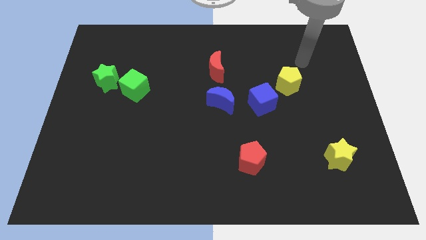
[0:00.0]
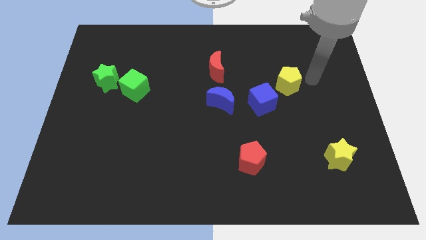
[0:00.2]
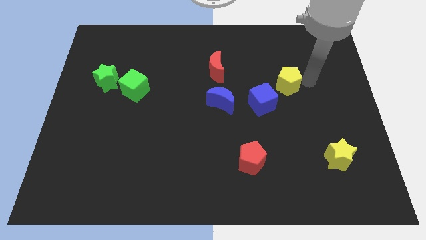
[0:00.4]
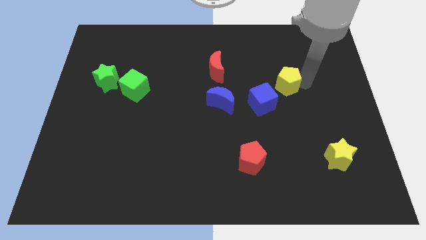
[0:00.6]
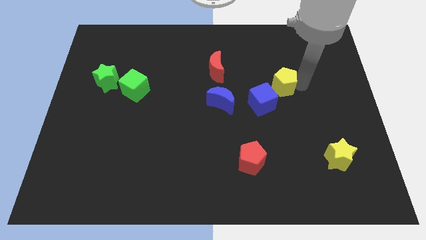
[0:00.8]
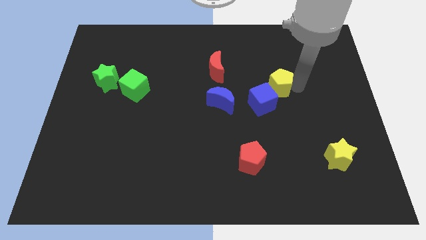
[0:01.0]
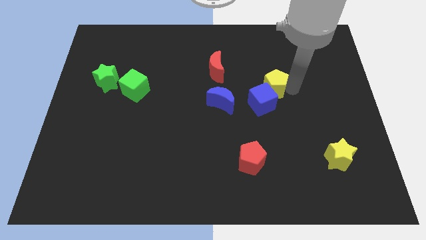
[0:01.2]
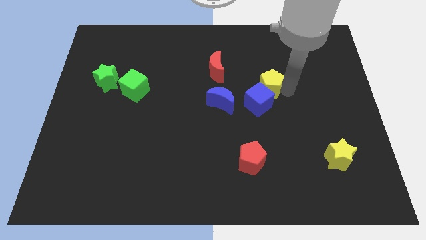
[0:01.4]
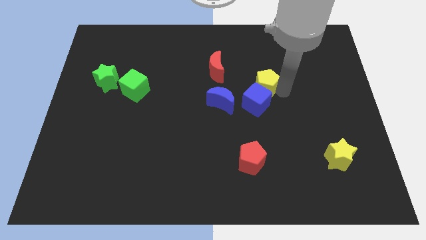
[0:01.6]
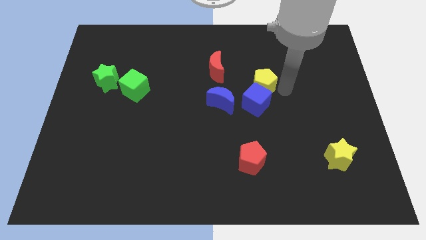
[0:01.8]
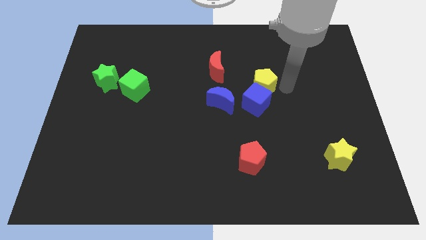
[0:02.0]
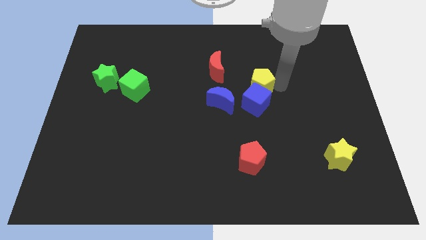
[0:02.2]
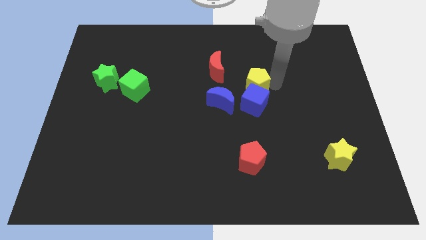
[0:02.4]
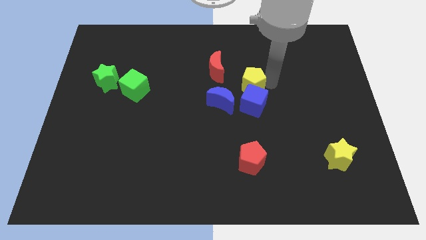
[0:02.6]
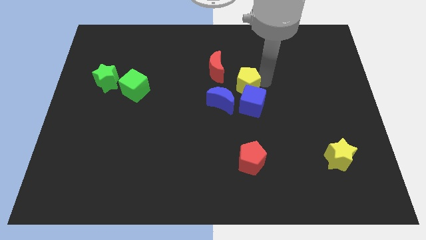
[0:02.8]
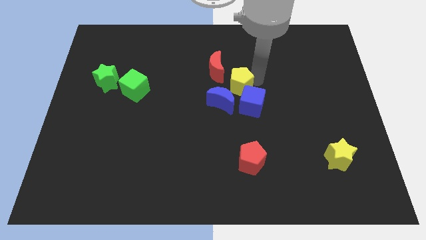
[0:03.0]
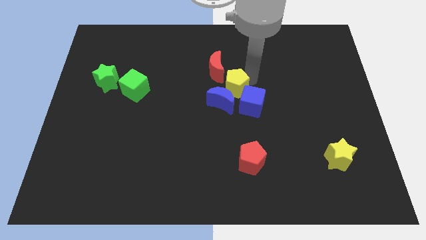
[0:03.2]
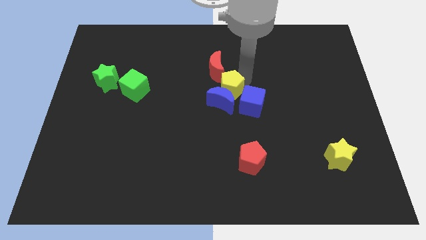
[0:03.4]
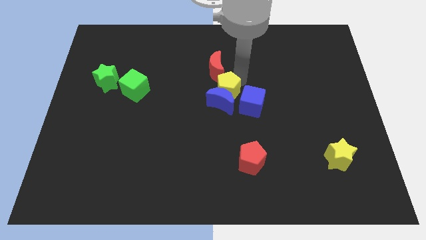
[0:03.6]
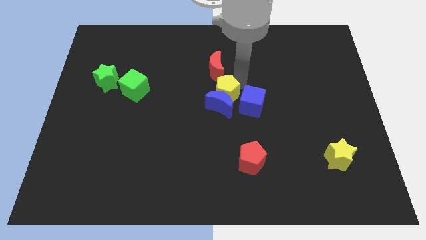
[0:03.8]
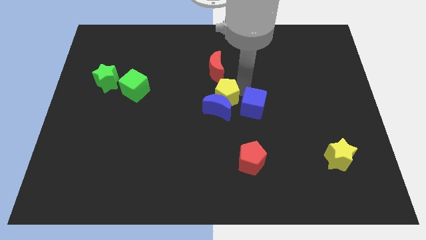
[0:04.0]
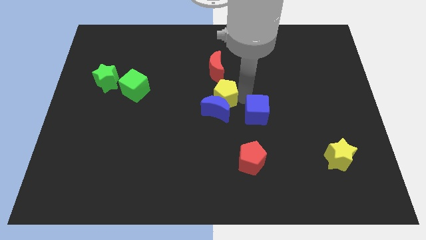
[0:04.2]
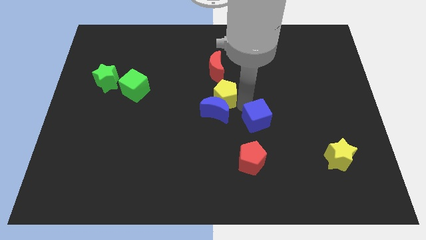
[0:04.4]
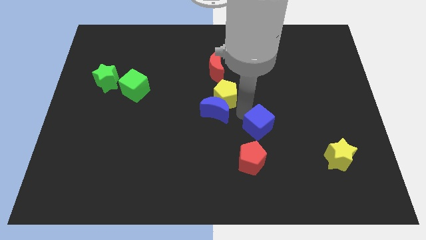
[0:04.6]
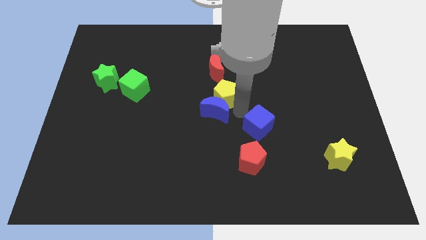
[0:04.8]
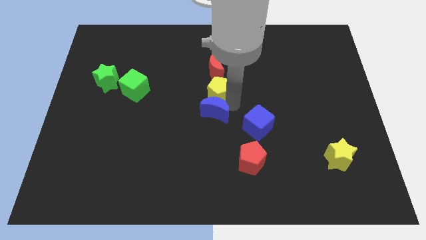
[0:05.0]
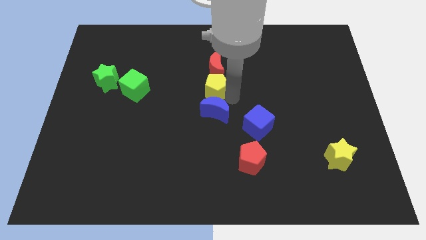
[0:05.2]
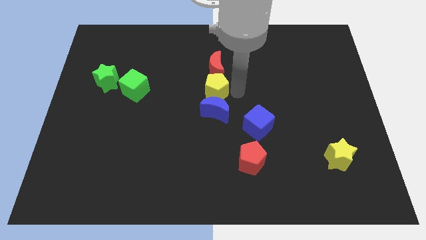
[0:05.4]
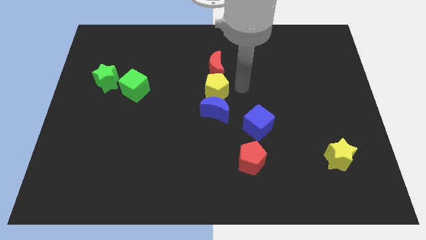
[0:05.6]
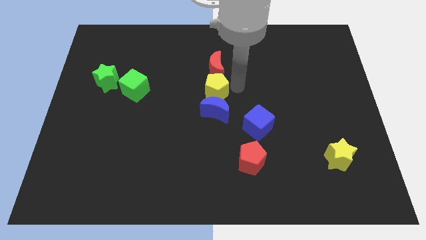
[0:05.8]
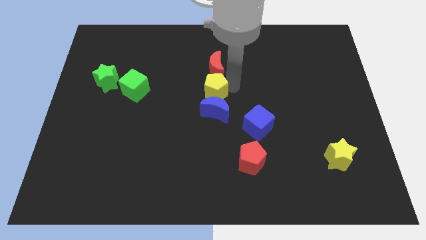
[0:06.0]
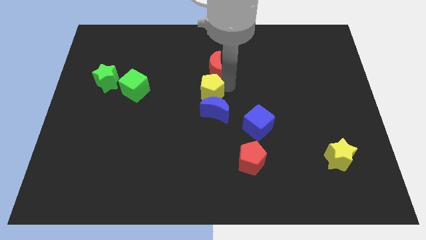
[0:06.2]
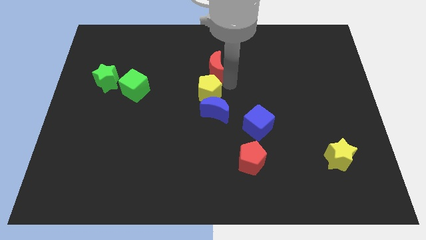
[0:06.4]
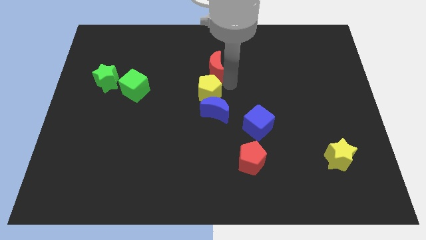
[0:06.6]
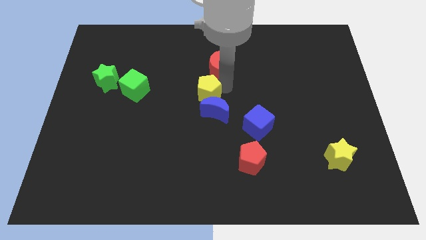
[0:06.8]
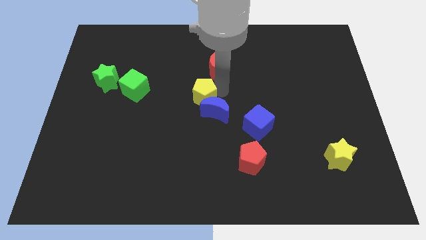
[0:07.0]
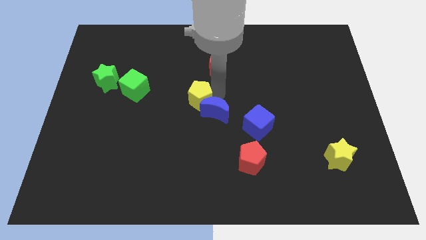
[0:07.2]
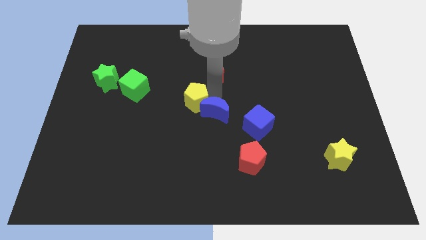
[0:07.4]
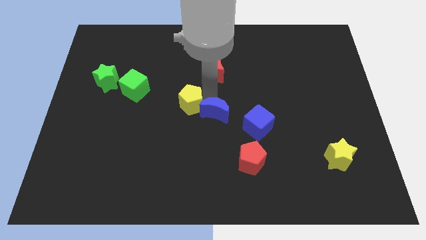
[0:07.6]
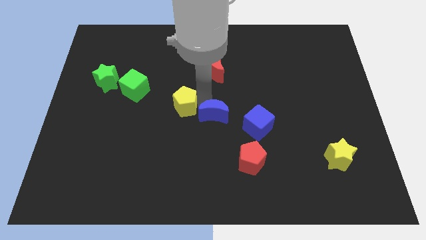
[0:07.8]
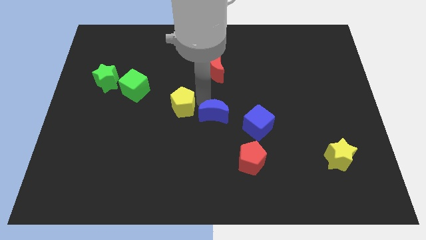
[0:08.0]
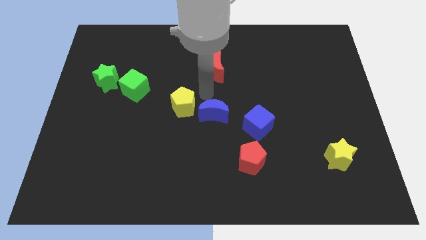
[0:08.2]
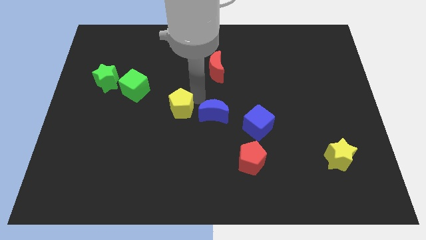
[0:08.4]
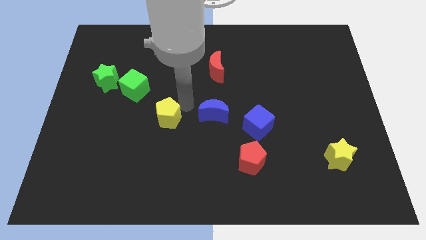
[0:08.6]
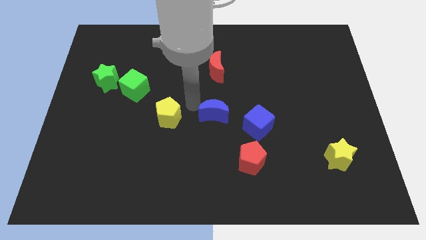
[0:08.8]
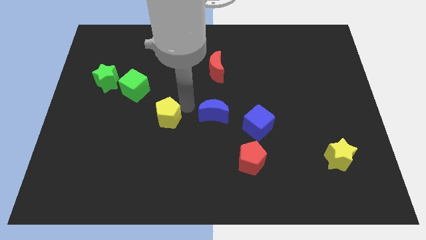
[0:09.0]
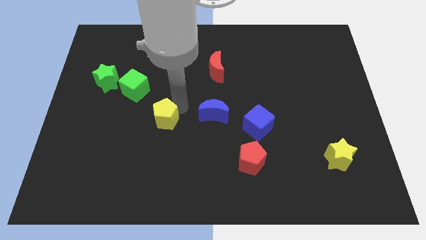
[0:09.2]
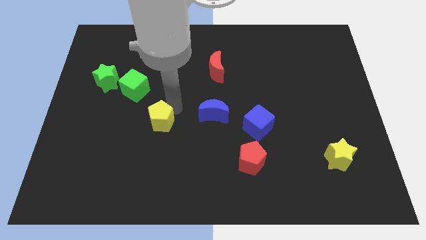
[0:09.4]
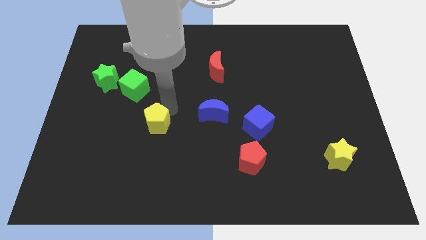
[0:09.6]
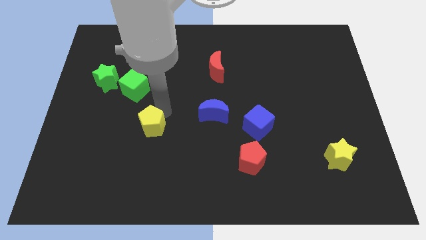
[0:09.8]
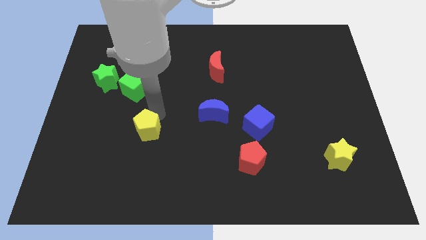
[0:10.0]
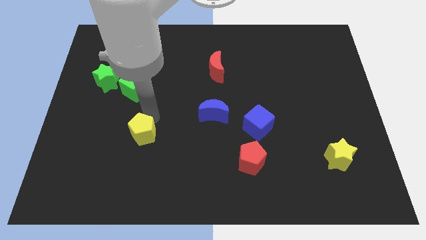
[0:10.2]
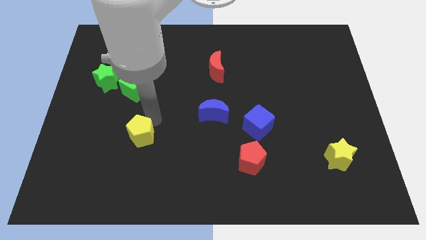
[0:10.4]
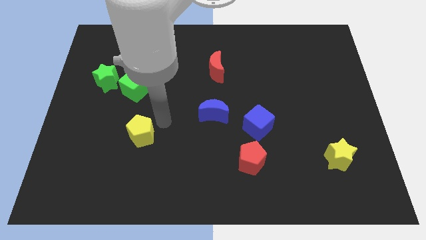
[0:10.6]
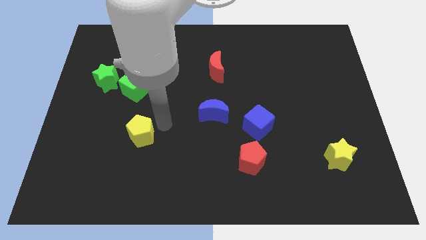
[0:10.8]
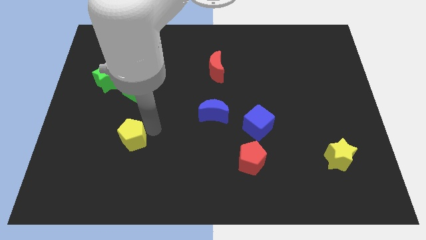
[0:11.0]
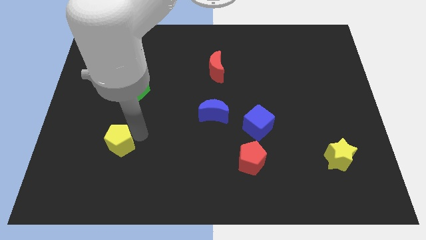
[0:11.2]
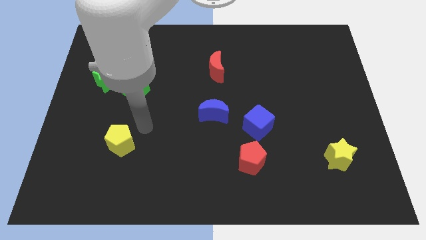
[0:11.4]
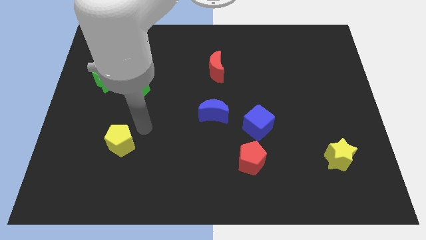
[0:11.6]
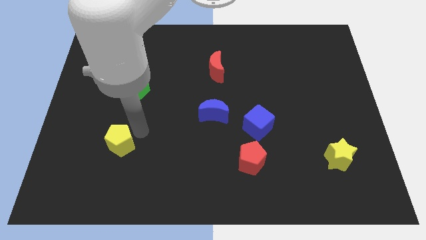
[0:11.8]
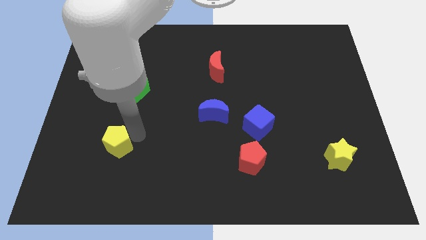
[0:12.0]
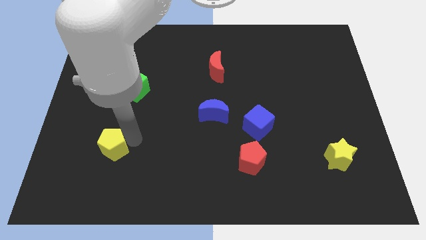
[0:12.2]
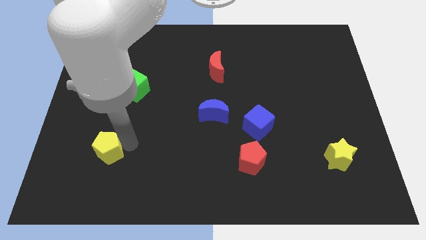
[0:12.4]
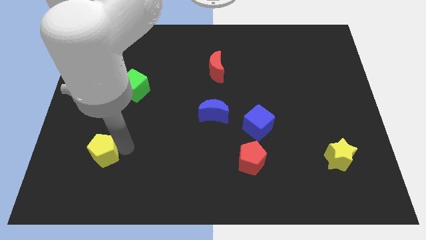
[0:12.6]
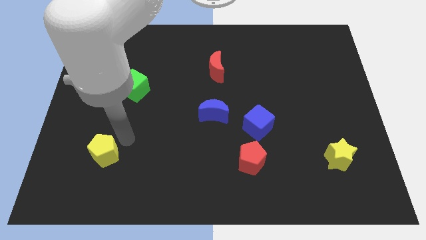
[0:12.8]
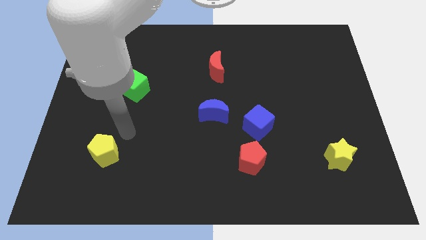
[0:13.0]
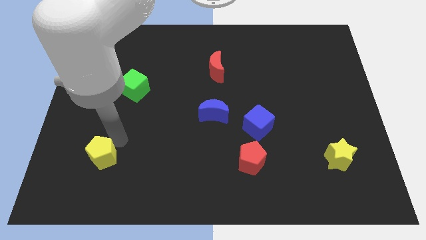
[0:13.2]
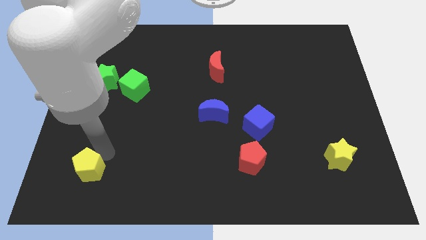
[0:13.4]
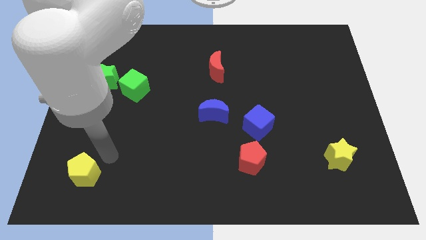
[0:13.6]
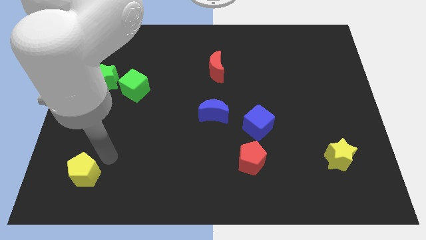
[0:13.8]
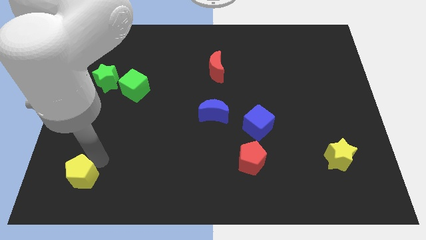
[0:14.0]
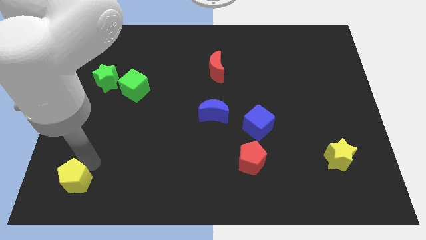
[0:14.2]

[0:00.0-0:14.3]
move the yellow pentagon to the lower left corner

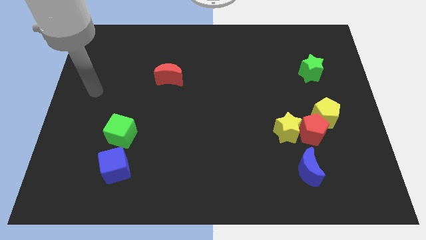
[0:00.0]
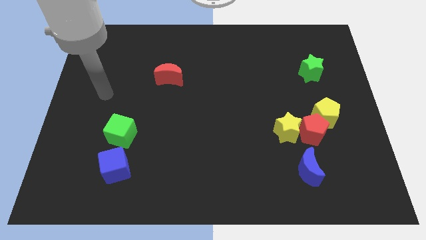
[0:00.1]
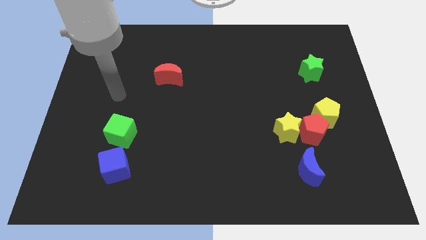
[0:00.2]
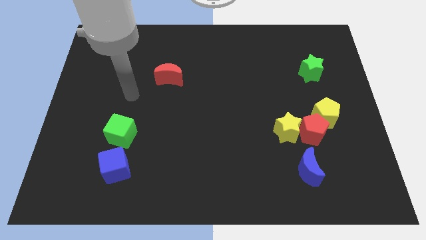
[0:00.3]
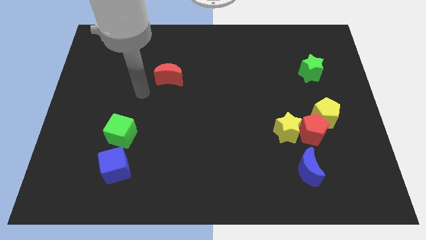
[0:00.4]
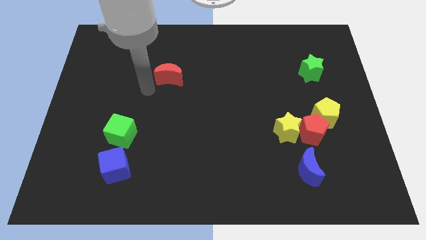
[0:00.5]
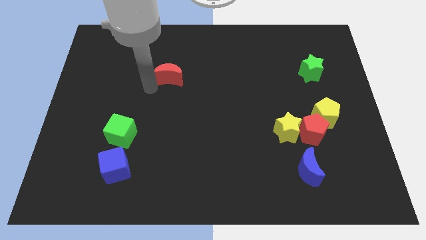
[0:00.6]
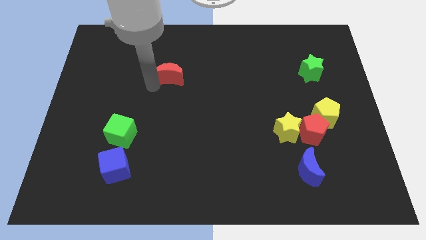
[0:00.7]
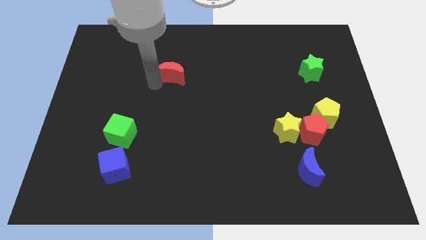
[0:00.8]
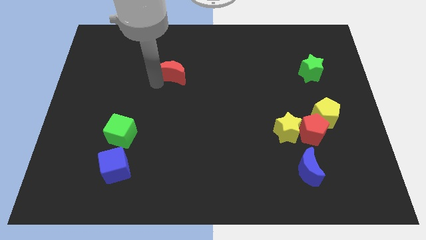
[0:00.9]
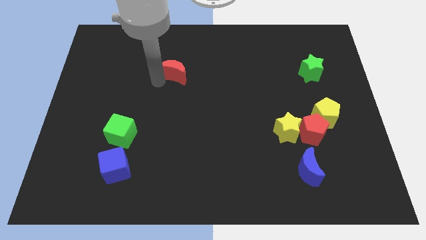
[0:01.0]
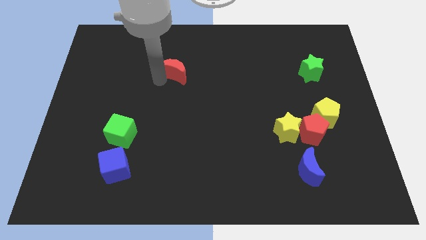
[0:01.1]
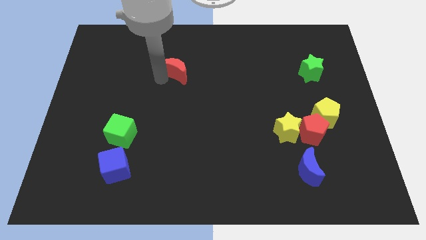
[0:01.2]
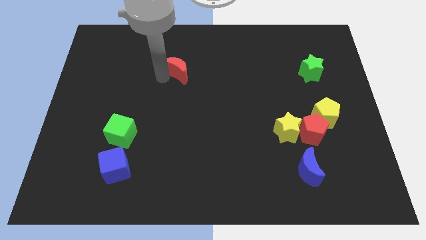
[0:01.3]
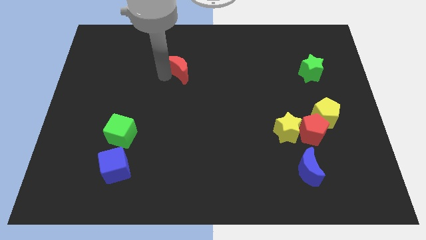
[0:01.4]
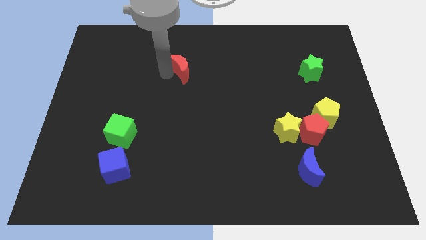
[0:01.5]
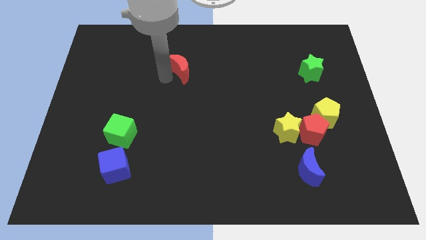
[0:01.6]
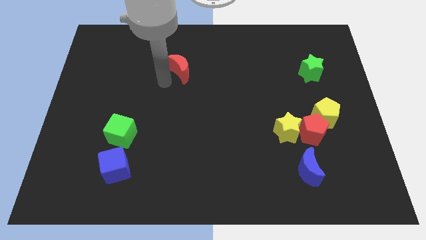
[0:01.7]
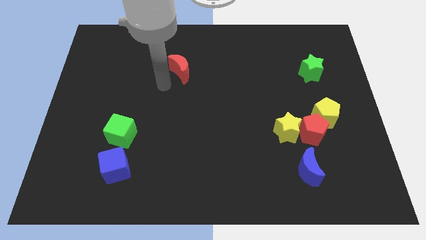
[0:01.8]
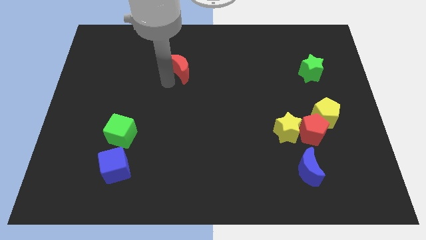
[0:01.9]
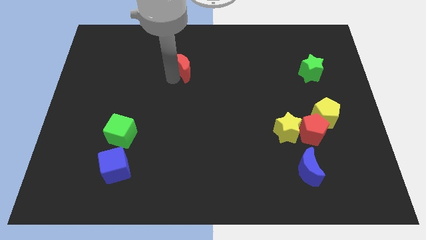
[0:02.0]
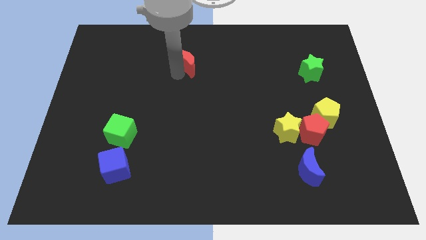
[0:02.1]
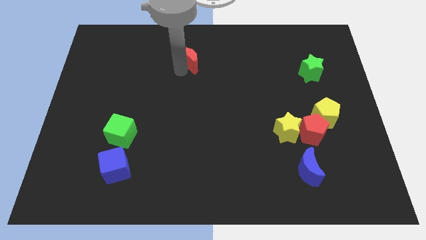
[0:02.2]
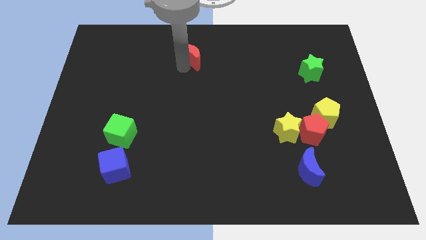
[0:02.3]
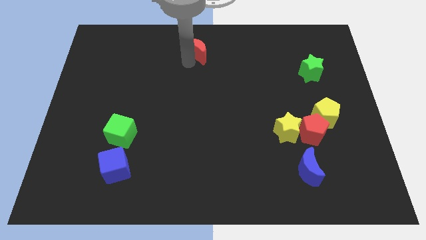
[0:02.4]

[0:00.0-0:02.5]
slide the red moon to the towards your base
